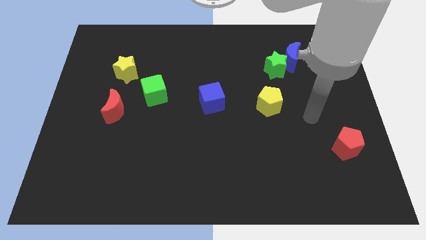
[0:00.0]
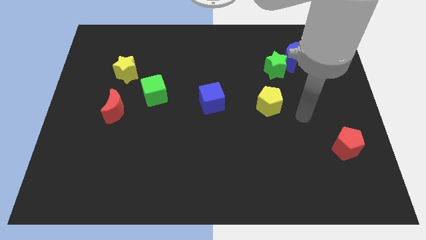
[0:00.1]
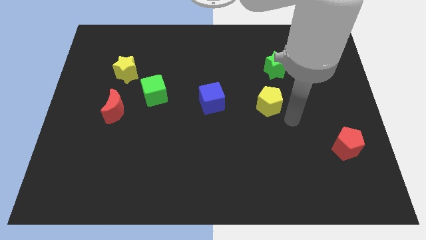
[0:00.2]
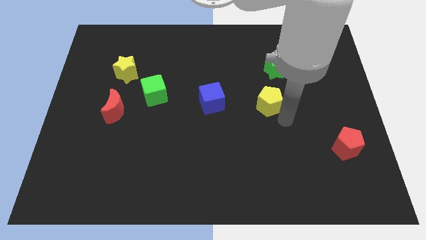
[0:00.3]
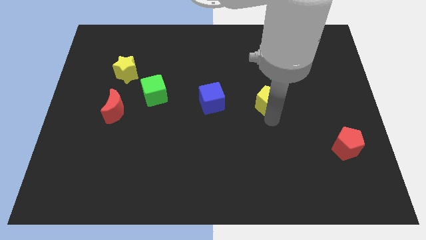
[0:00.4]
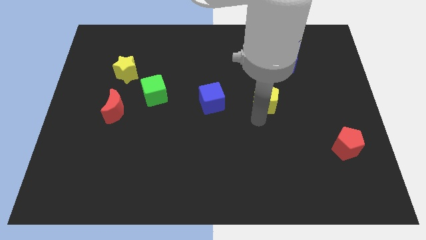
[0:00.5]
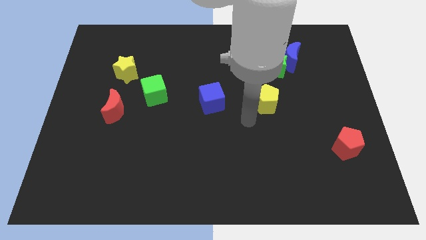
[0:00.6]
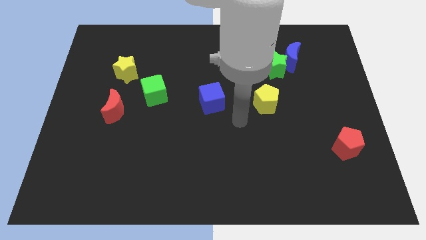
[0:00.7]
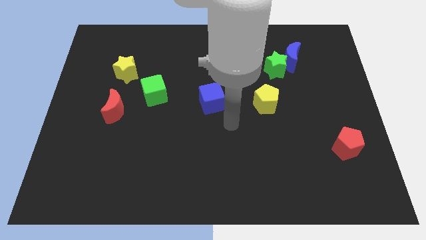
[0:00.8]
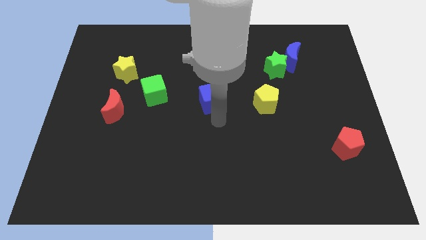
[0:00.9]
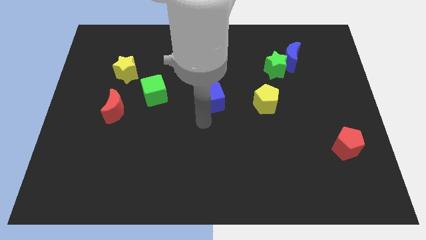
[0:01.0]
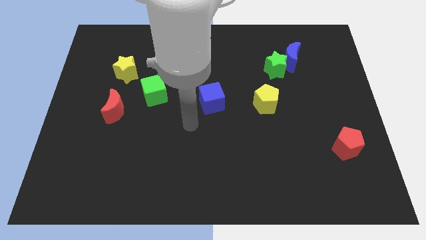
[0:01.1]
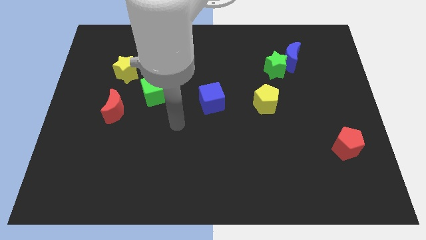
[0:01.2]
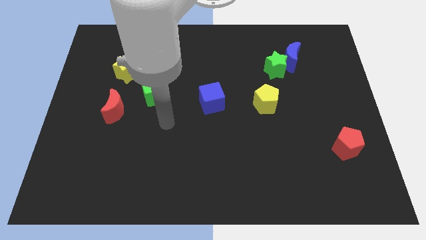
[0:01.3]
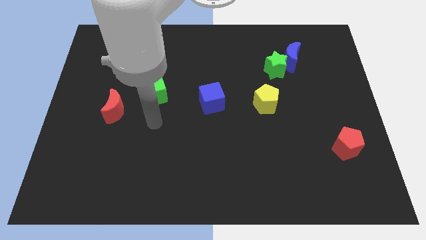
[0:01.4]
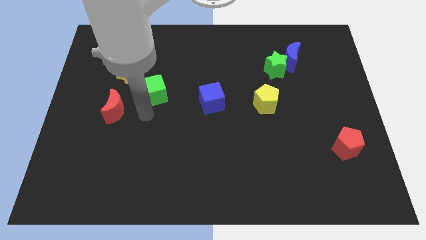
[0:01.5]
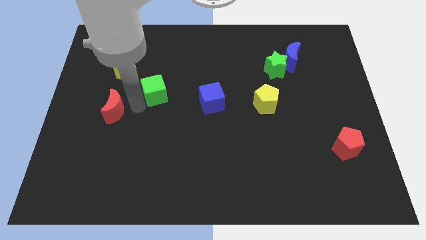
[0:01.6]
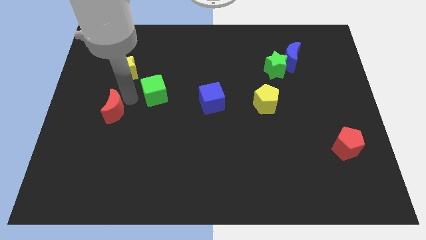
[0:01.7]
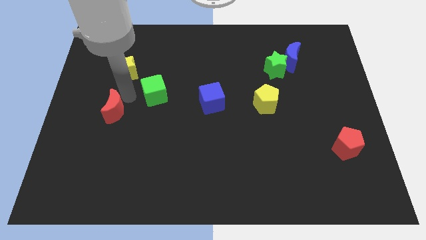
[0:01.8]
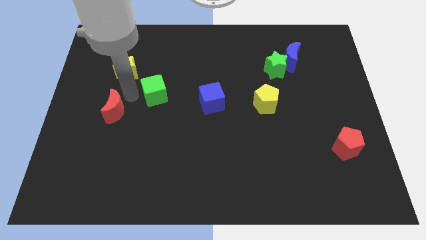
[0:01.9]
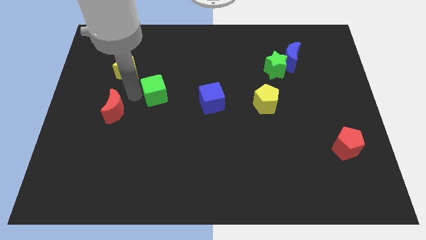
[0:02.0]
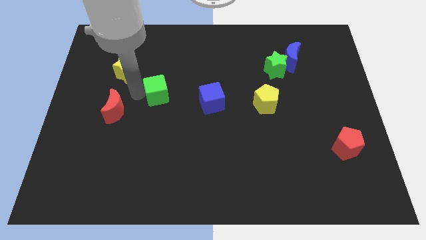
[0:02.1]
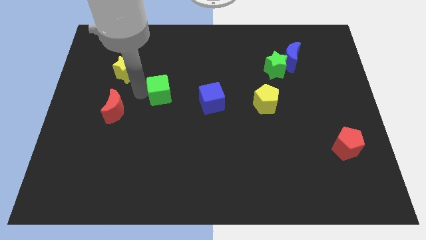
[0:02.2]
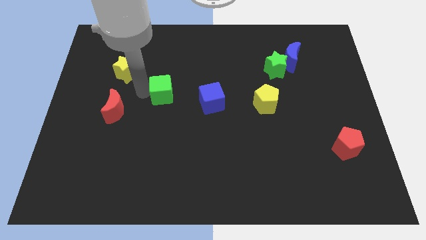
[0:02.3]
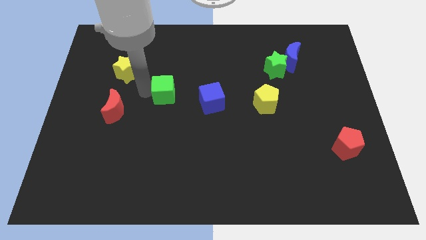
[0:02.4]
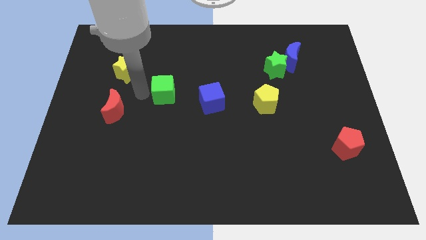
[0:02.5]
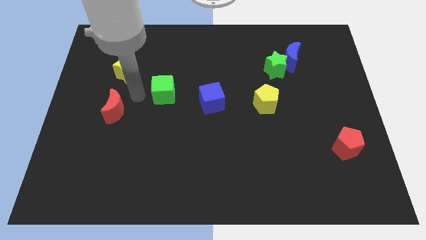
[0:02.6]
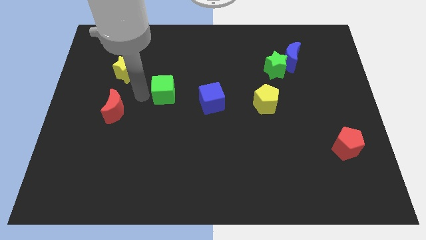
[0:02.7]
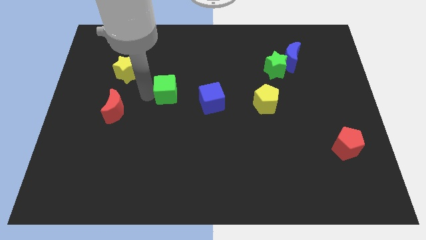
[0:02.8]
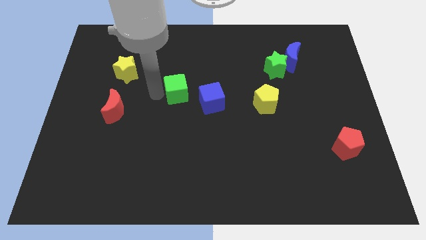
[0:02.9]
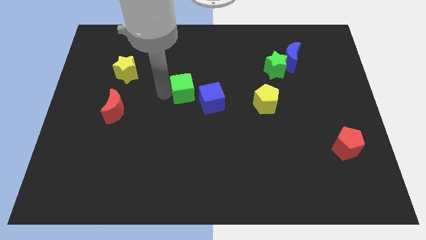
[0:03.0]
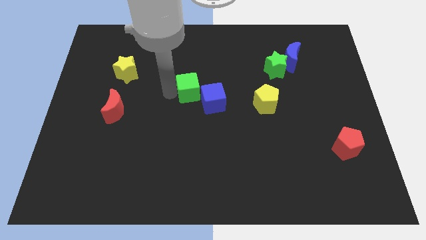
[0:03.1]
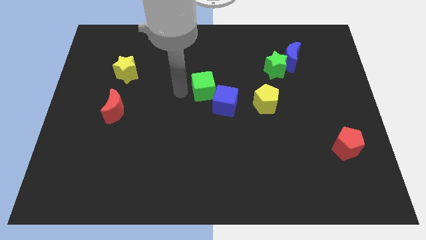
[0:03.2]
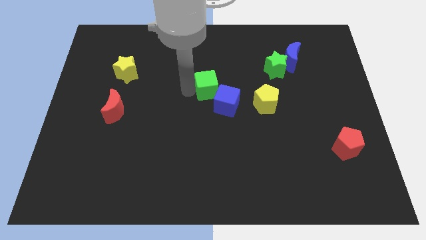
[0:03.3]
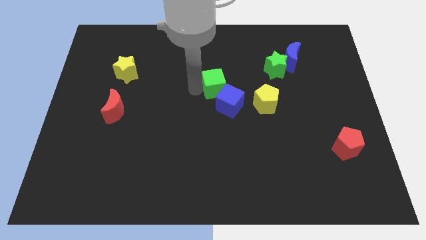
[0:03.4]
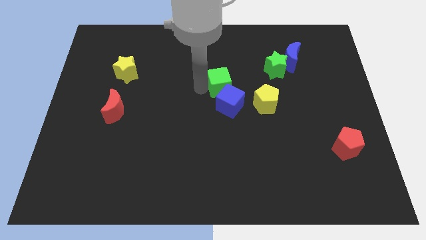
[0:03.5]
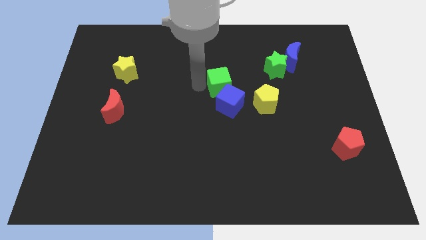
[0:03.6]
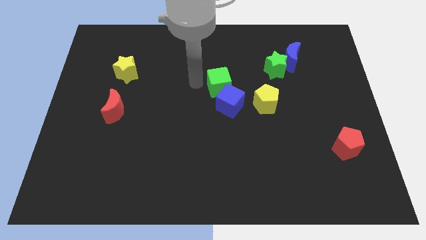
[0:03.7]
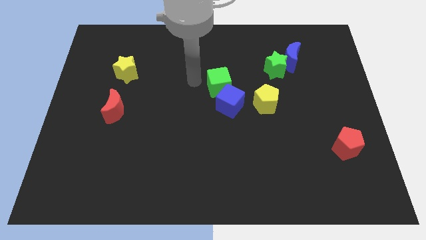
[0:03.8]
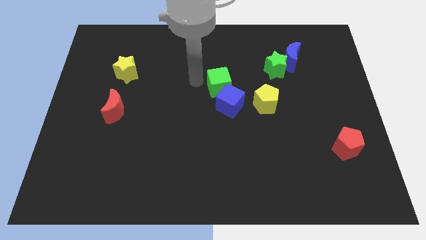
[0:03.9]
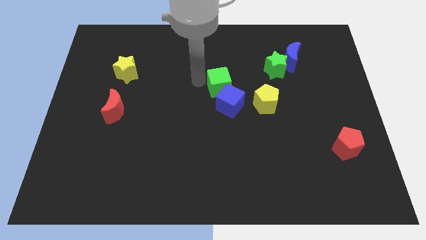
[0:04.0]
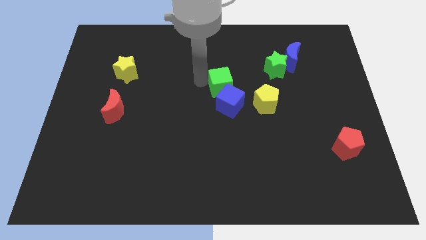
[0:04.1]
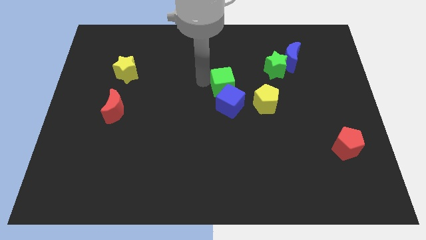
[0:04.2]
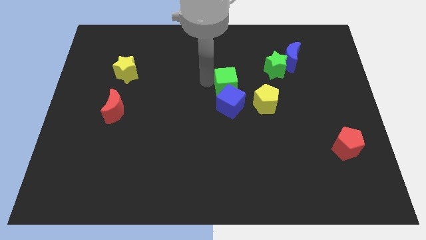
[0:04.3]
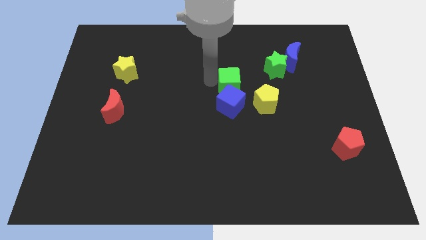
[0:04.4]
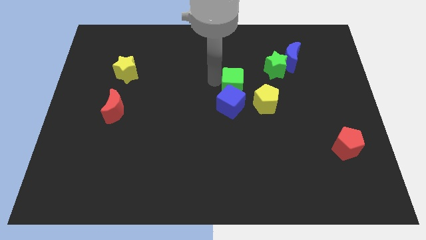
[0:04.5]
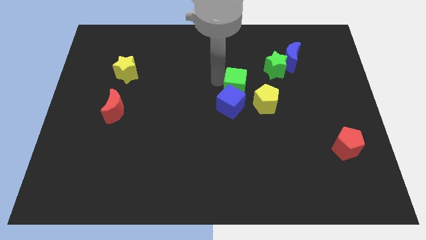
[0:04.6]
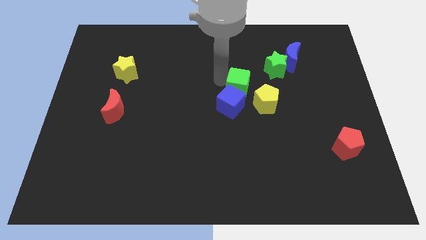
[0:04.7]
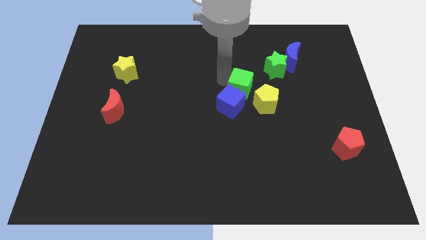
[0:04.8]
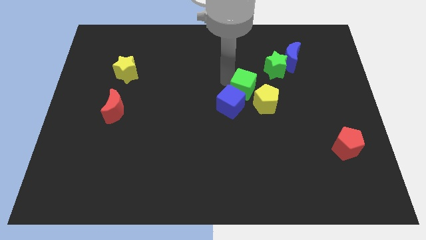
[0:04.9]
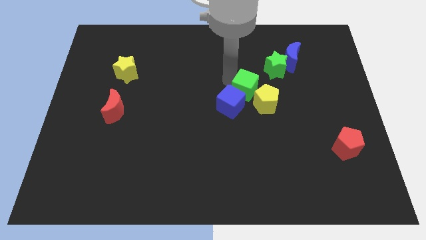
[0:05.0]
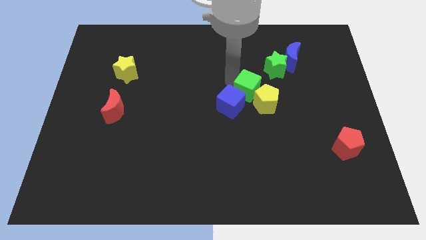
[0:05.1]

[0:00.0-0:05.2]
slide the green cube to the yellow pentagon

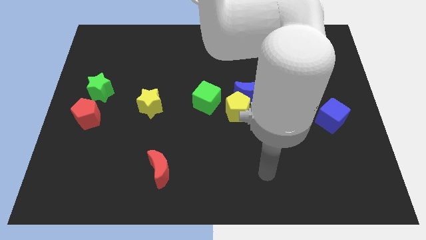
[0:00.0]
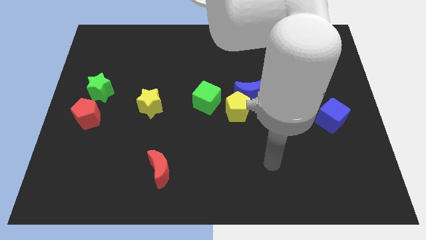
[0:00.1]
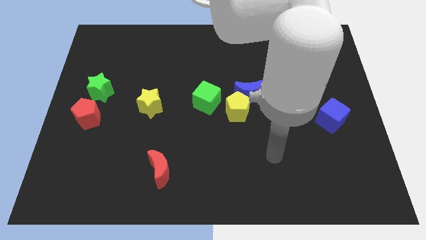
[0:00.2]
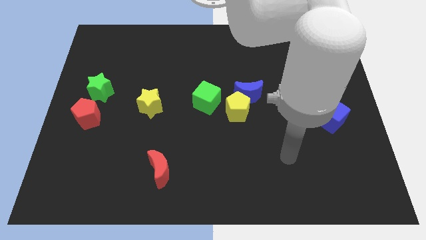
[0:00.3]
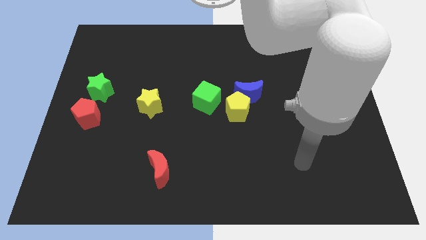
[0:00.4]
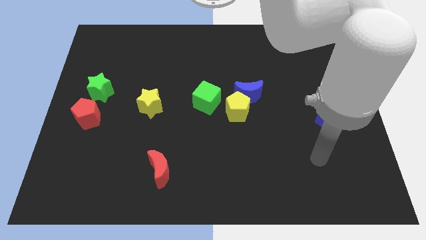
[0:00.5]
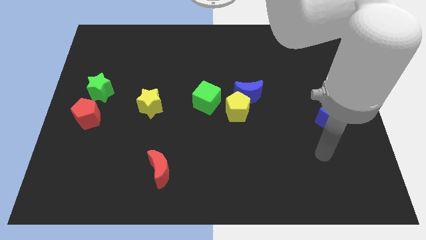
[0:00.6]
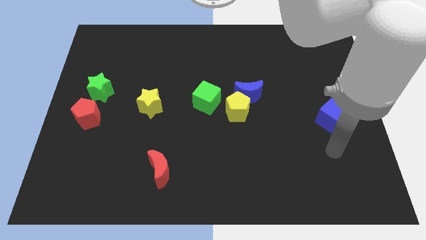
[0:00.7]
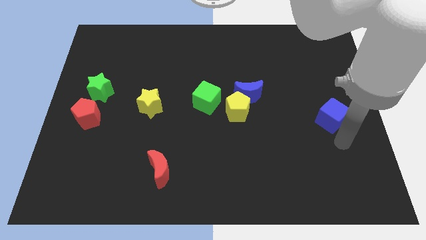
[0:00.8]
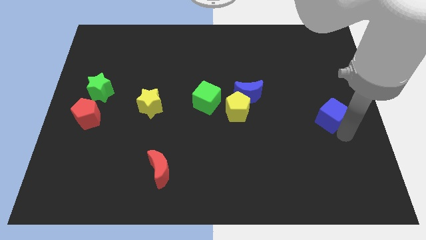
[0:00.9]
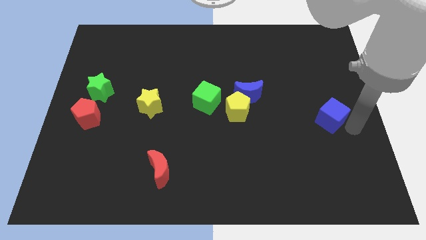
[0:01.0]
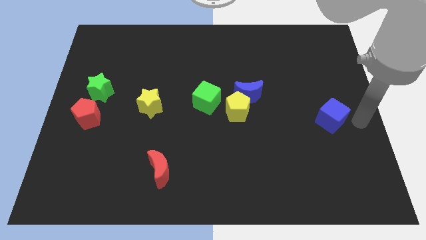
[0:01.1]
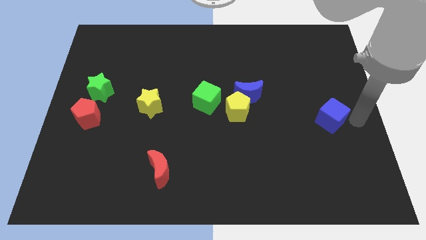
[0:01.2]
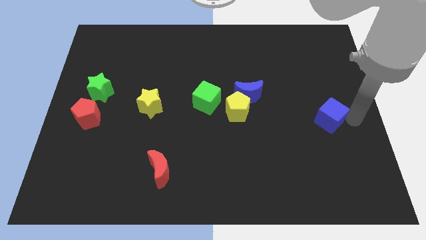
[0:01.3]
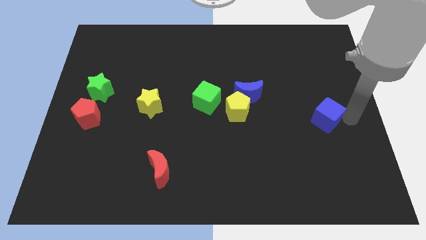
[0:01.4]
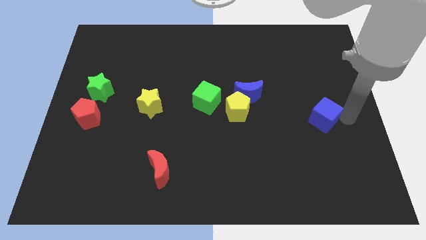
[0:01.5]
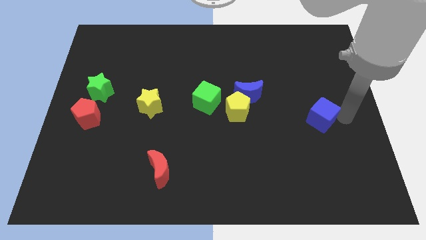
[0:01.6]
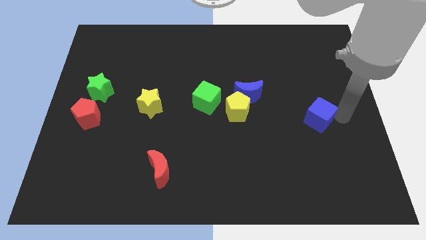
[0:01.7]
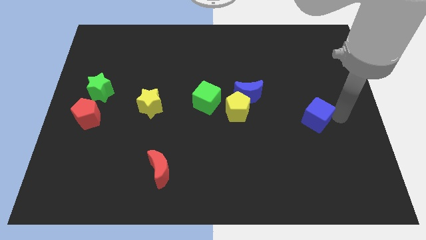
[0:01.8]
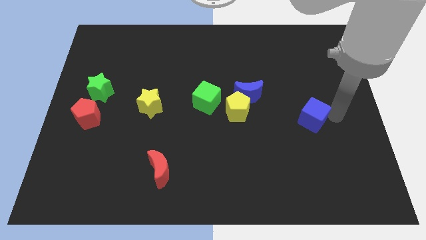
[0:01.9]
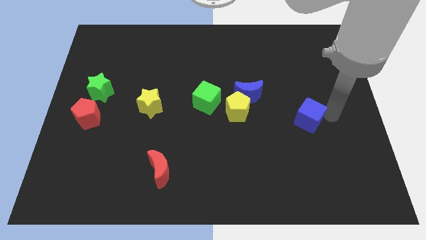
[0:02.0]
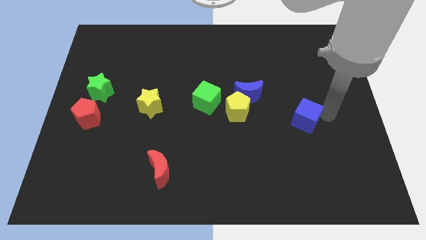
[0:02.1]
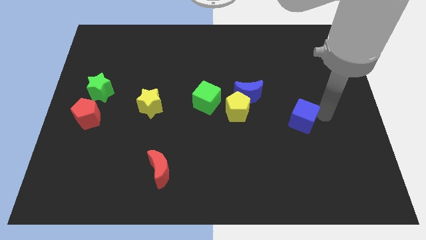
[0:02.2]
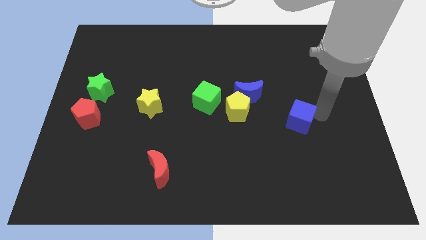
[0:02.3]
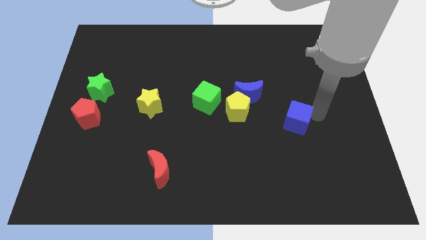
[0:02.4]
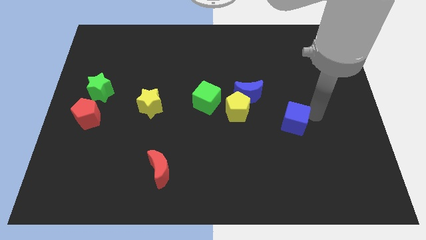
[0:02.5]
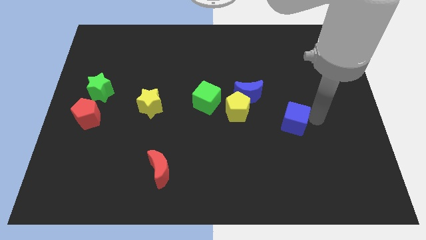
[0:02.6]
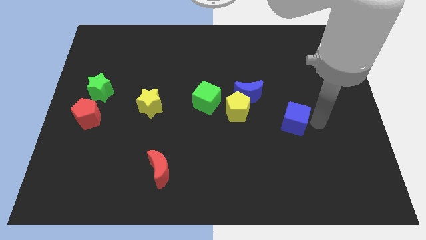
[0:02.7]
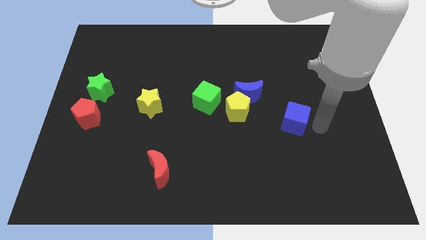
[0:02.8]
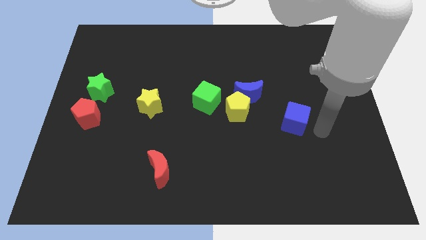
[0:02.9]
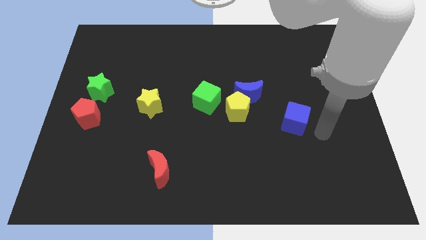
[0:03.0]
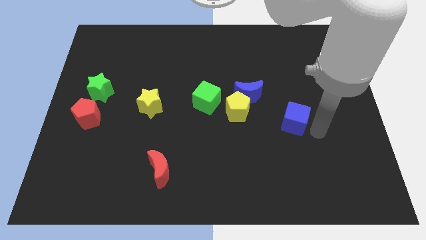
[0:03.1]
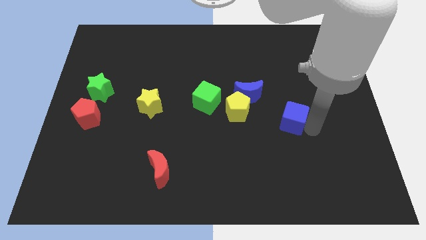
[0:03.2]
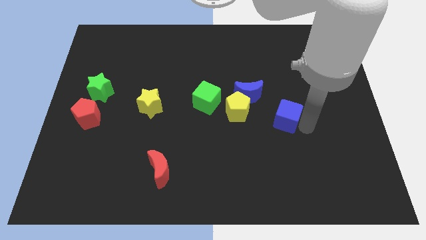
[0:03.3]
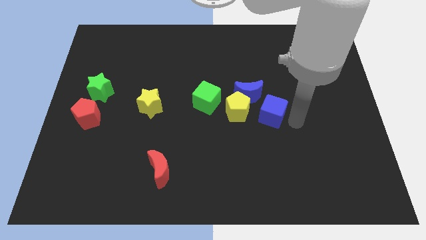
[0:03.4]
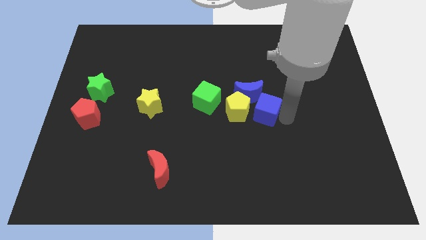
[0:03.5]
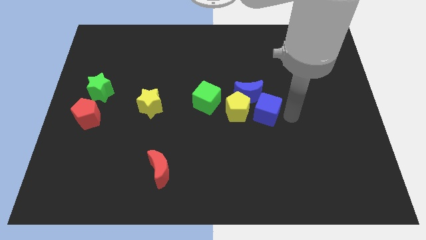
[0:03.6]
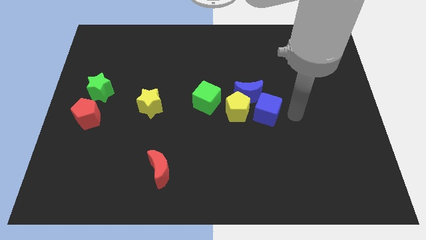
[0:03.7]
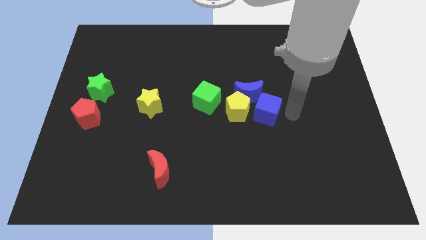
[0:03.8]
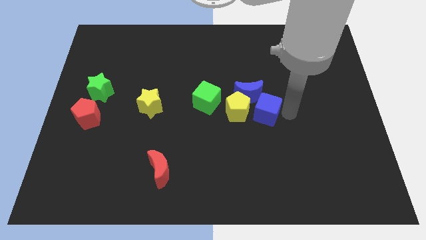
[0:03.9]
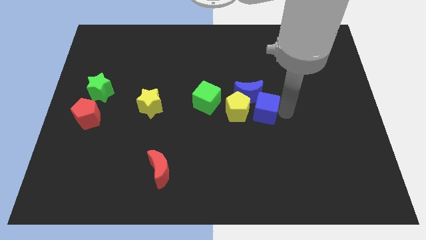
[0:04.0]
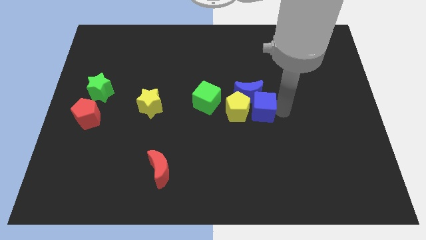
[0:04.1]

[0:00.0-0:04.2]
put the blue cube towards the yellow pentagon
